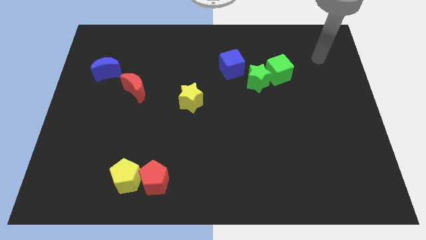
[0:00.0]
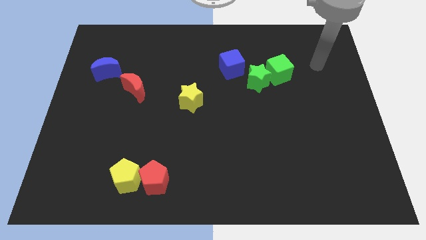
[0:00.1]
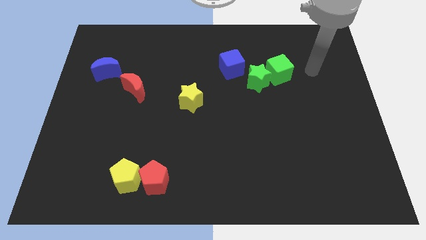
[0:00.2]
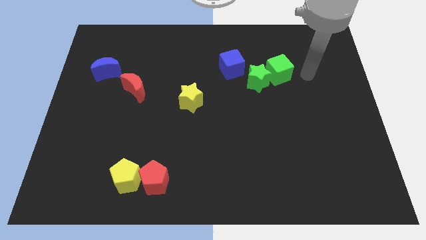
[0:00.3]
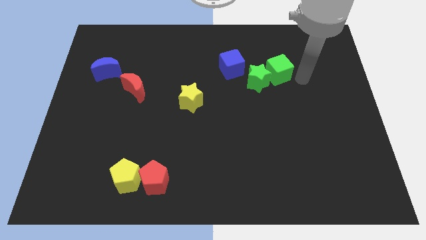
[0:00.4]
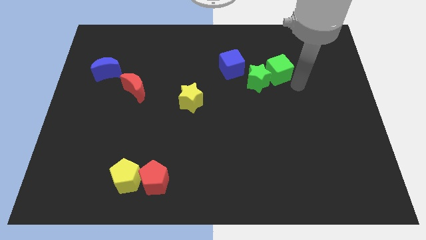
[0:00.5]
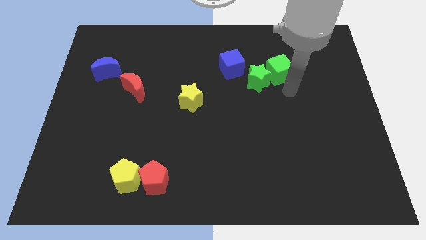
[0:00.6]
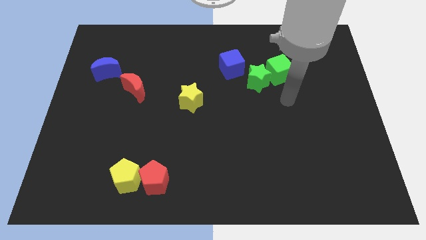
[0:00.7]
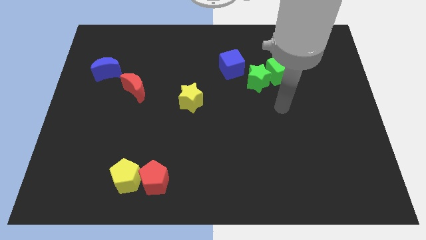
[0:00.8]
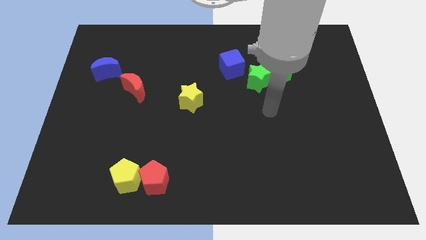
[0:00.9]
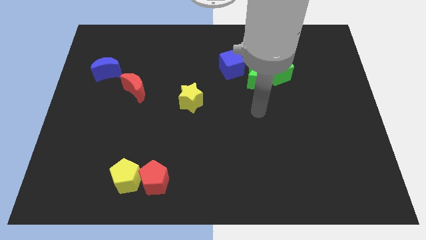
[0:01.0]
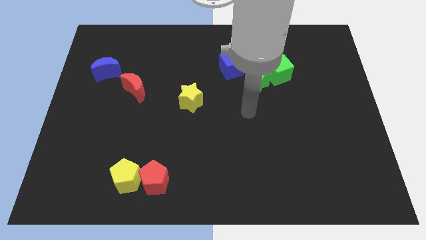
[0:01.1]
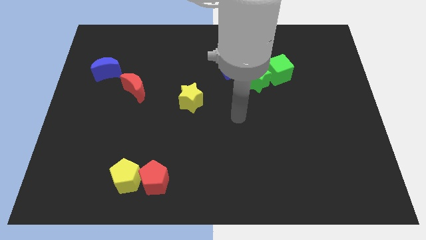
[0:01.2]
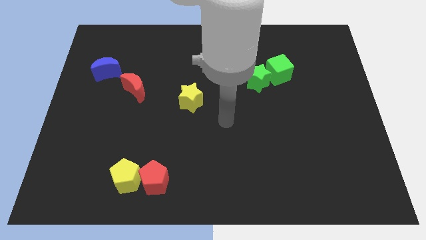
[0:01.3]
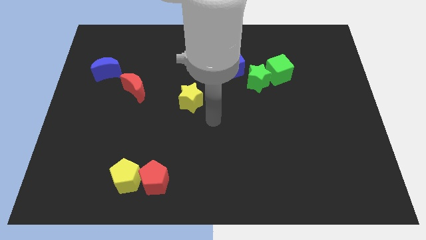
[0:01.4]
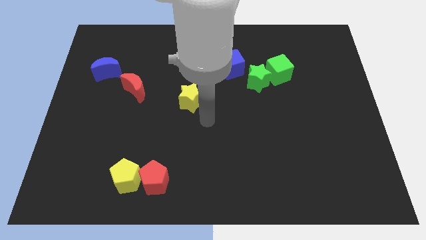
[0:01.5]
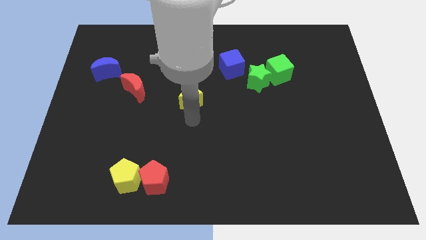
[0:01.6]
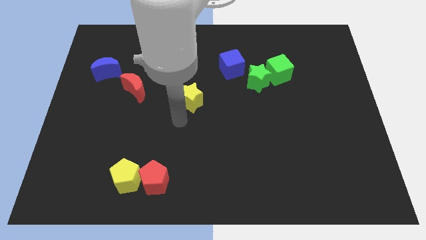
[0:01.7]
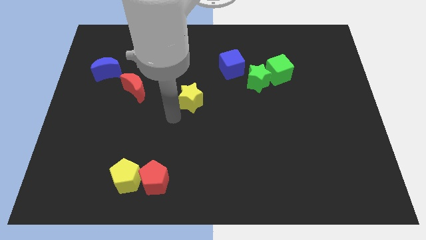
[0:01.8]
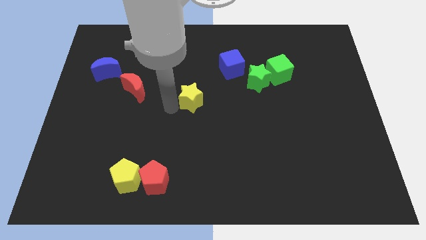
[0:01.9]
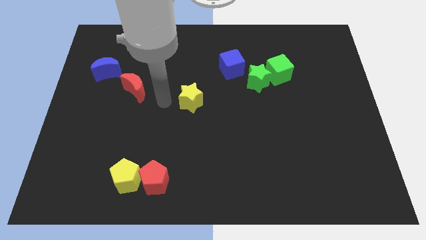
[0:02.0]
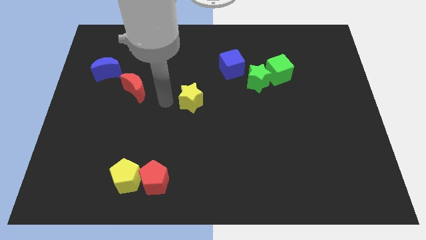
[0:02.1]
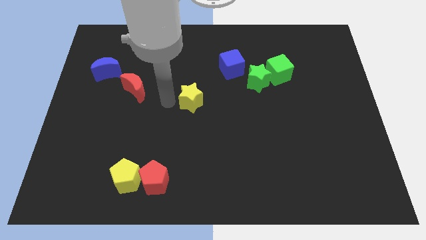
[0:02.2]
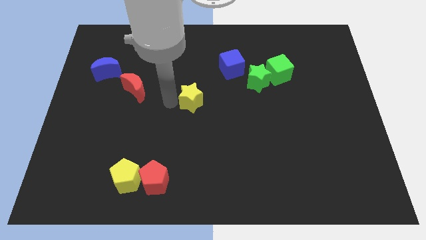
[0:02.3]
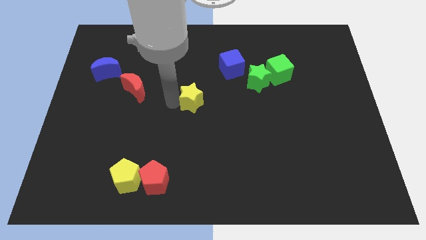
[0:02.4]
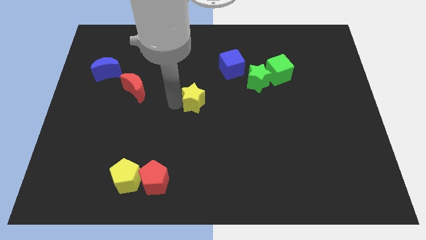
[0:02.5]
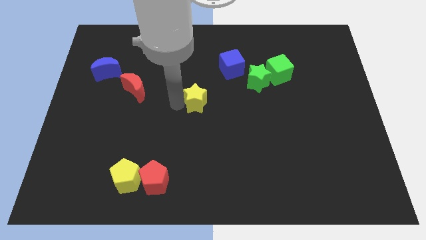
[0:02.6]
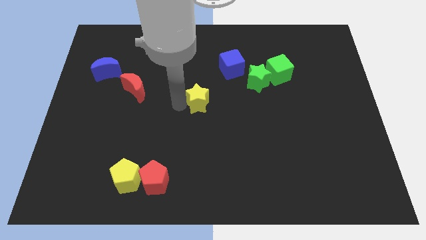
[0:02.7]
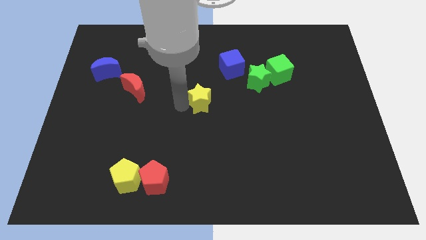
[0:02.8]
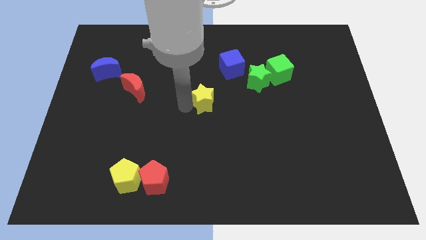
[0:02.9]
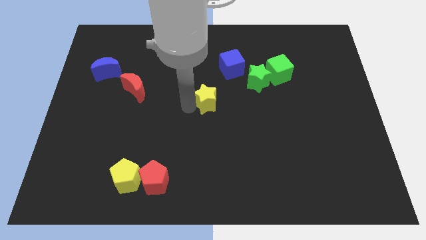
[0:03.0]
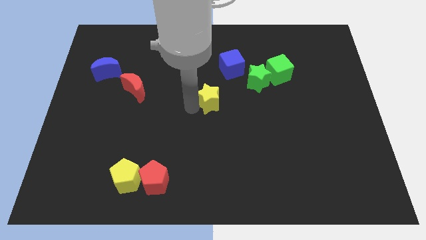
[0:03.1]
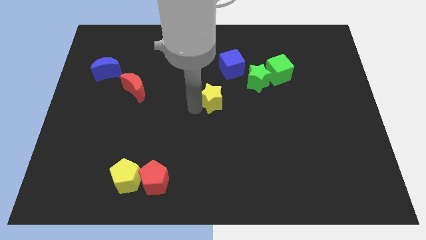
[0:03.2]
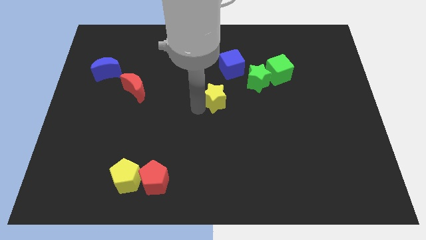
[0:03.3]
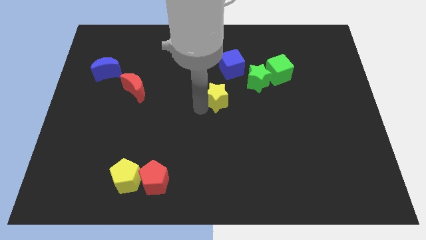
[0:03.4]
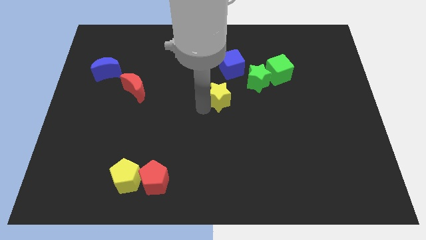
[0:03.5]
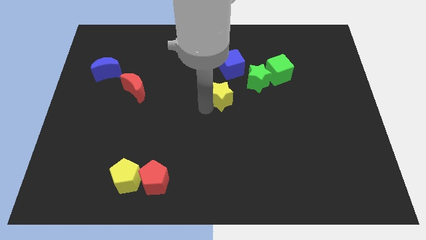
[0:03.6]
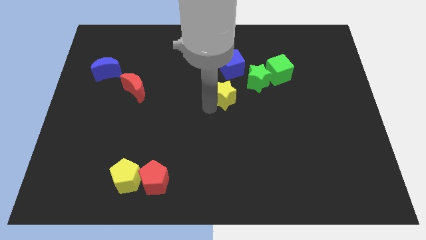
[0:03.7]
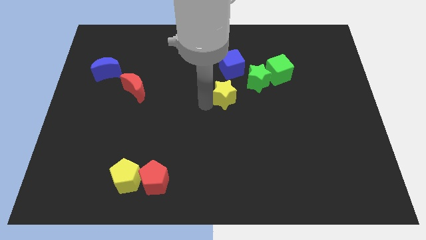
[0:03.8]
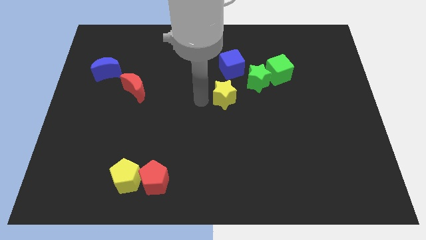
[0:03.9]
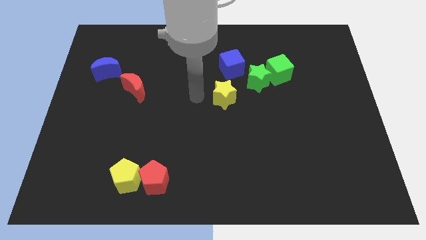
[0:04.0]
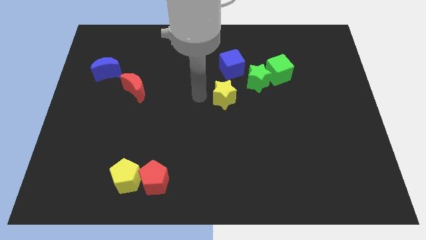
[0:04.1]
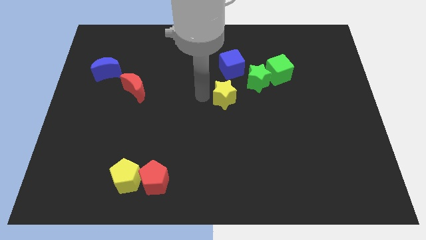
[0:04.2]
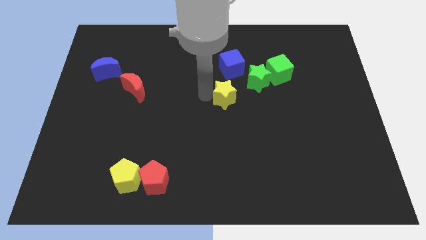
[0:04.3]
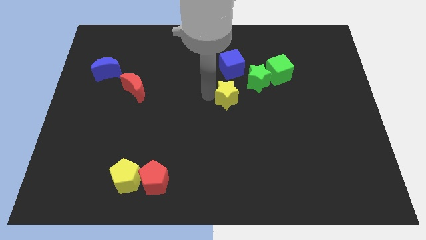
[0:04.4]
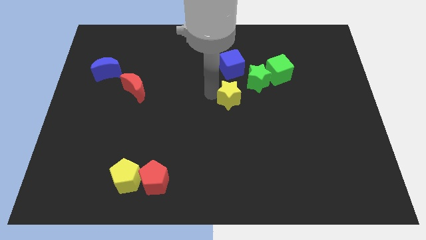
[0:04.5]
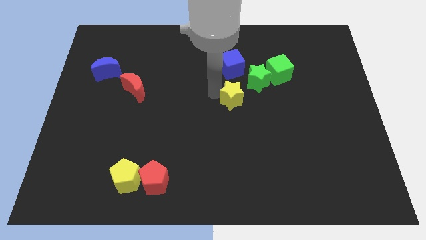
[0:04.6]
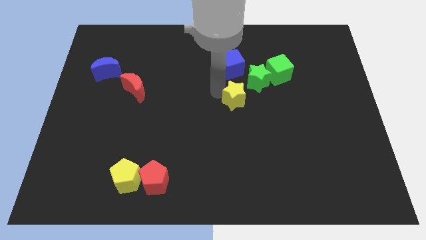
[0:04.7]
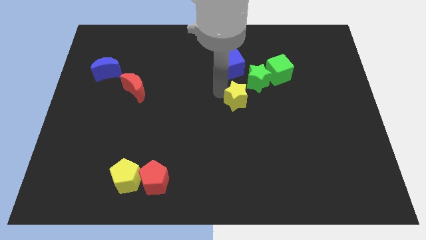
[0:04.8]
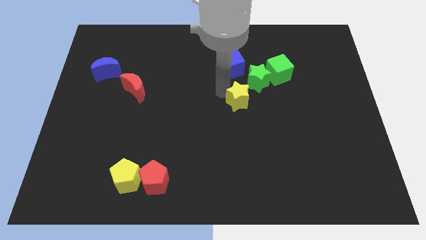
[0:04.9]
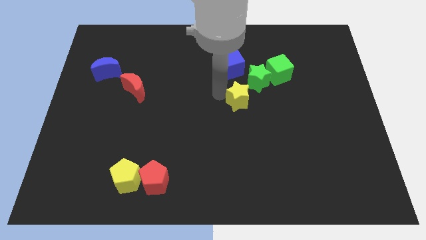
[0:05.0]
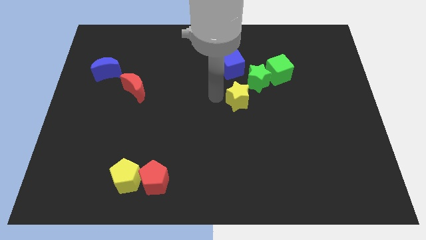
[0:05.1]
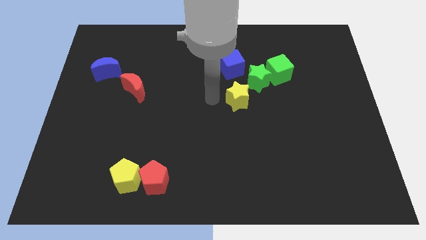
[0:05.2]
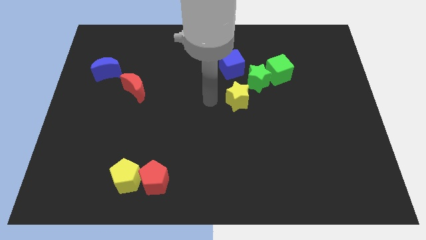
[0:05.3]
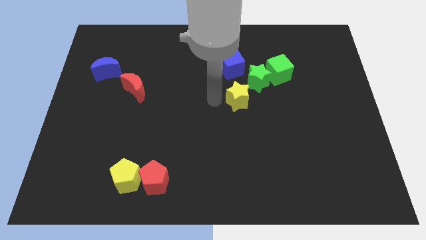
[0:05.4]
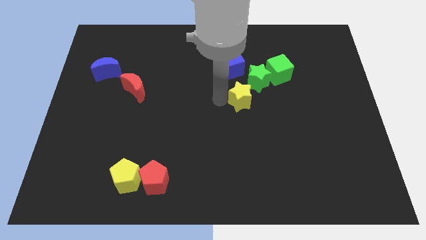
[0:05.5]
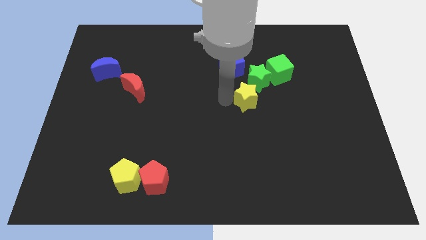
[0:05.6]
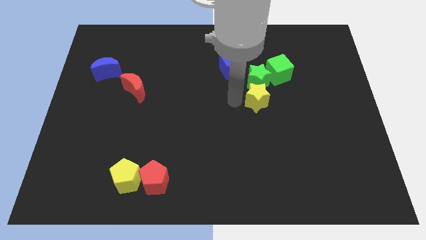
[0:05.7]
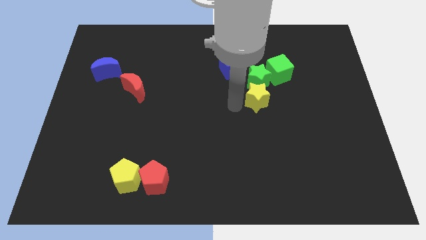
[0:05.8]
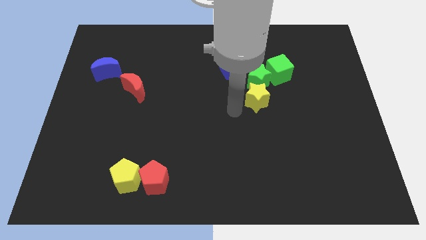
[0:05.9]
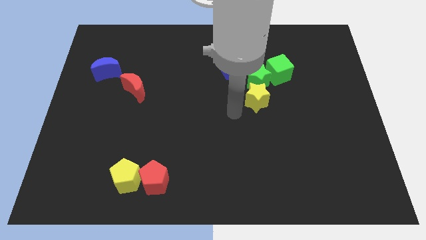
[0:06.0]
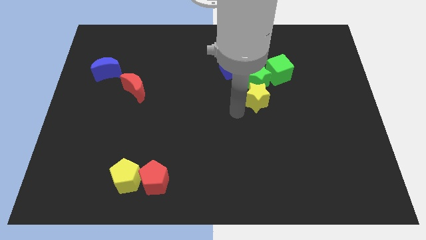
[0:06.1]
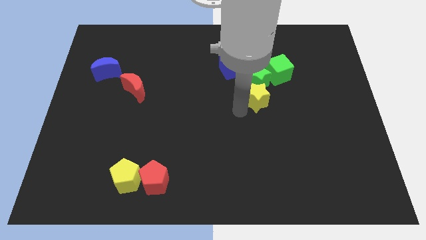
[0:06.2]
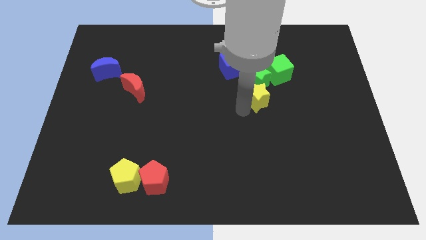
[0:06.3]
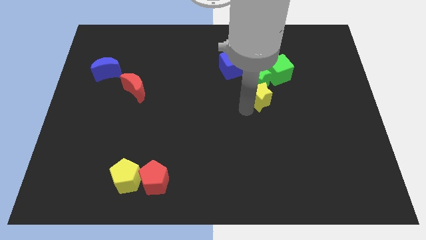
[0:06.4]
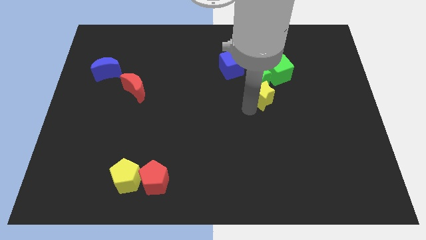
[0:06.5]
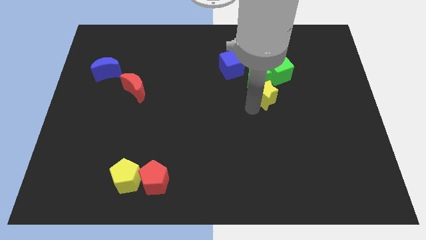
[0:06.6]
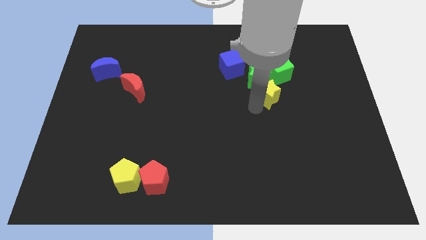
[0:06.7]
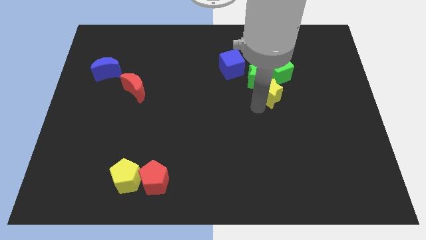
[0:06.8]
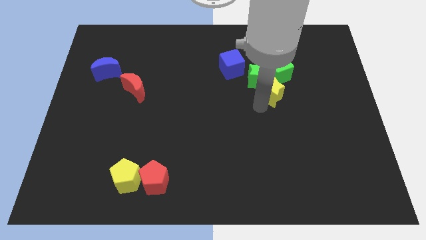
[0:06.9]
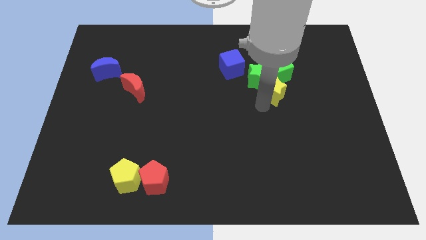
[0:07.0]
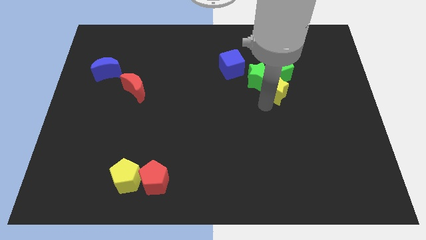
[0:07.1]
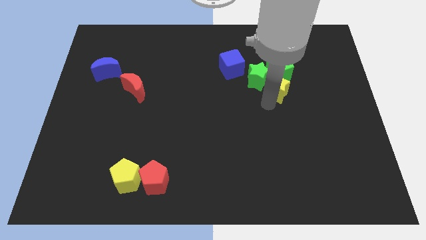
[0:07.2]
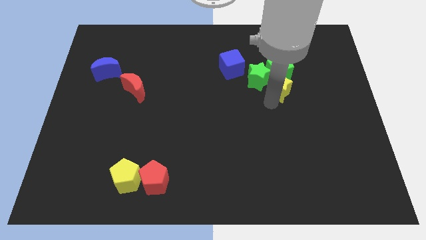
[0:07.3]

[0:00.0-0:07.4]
move the yellow star next to the green cube
